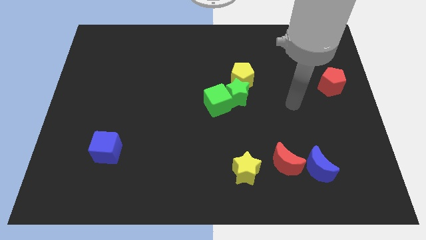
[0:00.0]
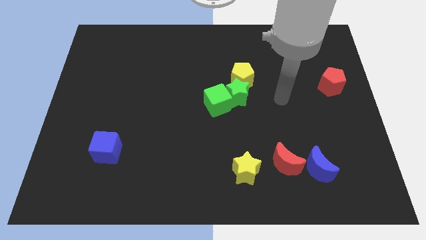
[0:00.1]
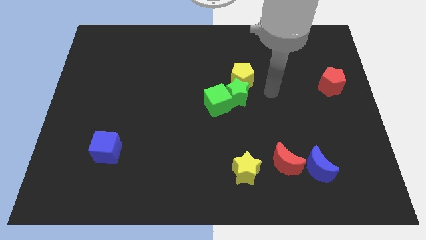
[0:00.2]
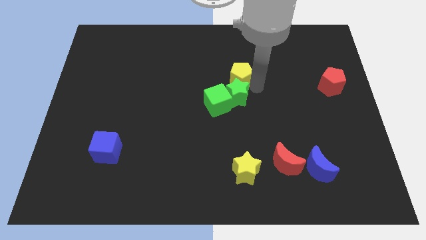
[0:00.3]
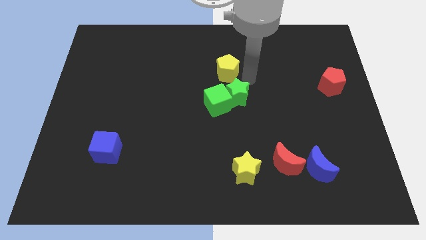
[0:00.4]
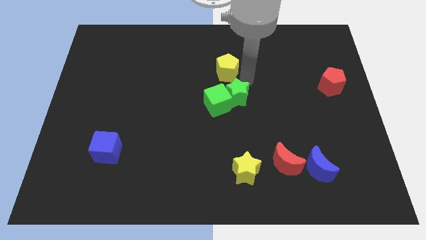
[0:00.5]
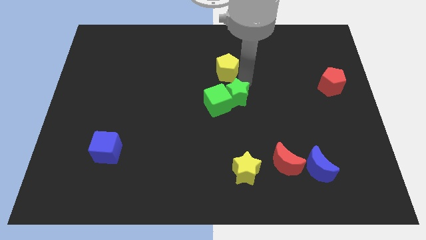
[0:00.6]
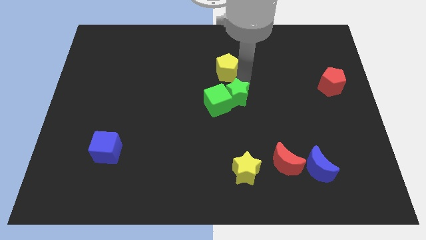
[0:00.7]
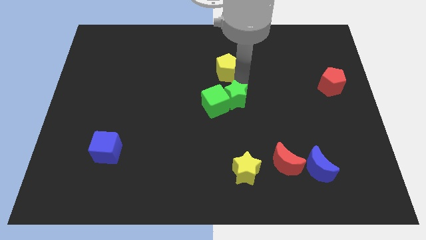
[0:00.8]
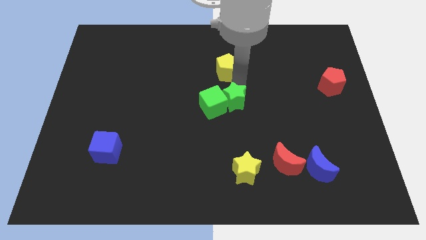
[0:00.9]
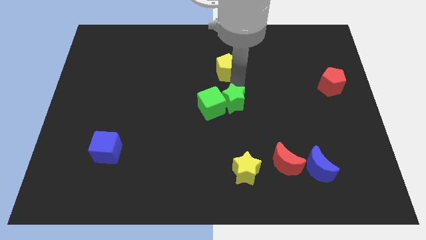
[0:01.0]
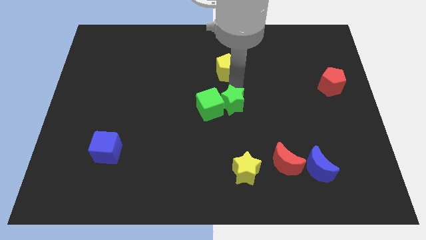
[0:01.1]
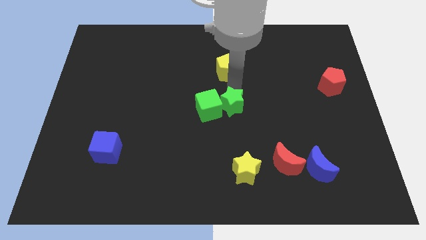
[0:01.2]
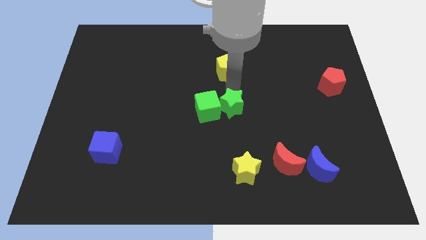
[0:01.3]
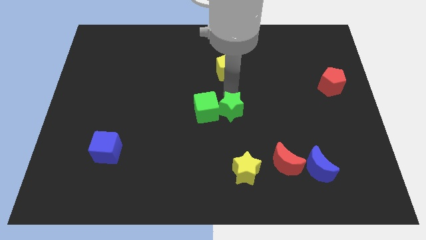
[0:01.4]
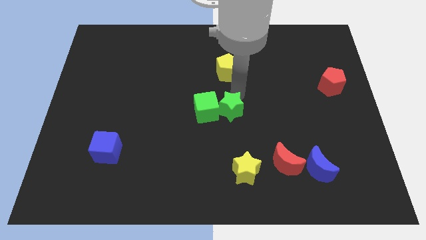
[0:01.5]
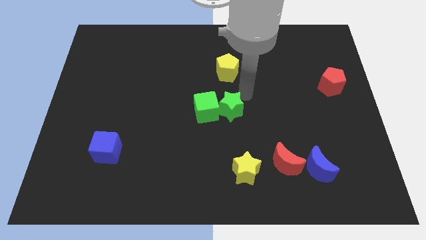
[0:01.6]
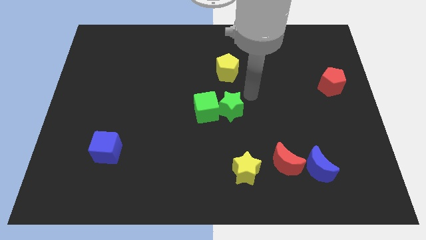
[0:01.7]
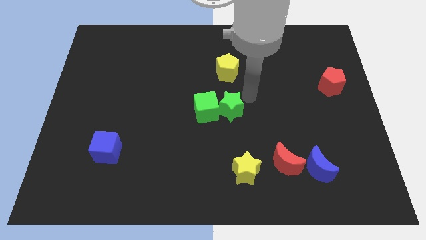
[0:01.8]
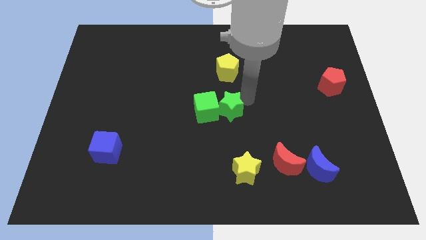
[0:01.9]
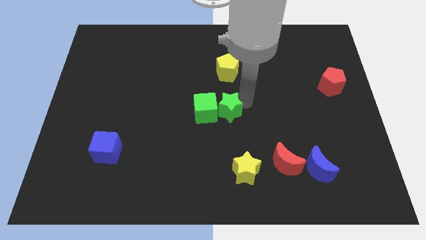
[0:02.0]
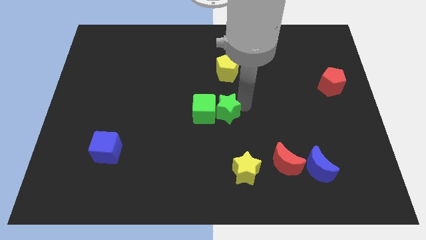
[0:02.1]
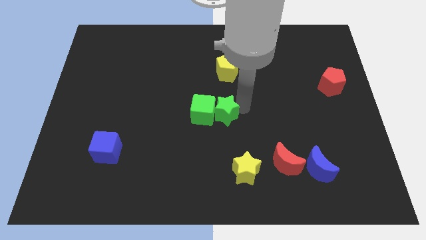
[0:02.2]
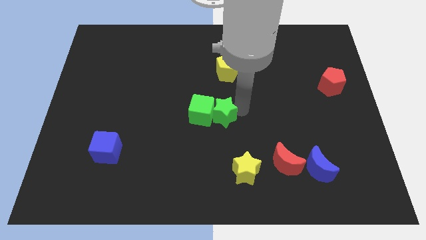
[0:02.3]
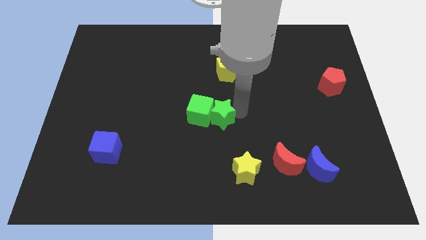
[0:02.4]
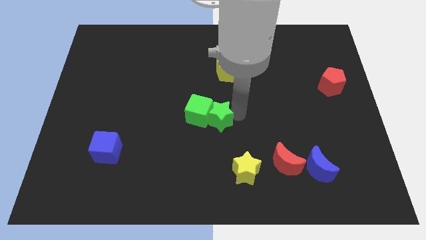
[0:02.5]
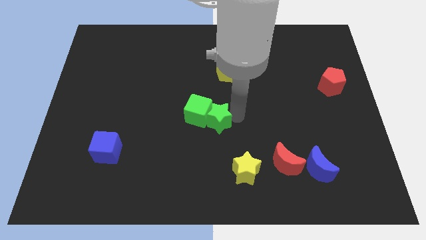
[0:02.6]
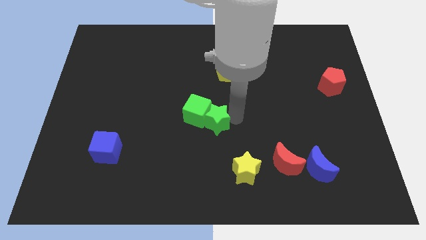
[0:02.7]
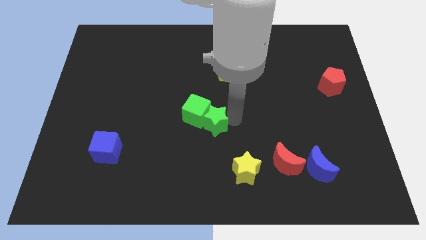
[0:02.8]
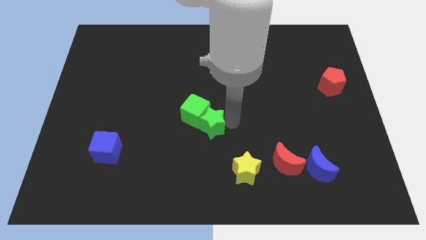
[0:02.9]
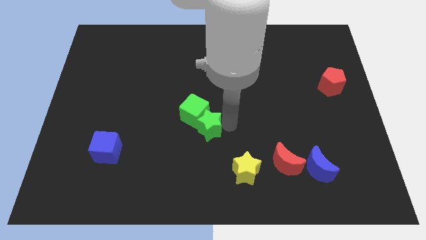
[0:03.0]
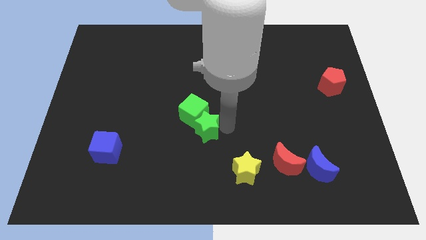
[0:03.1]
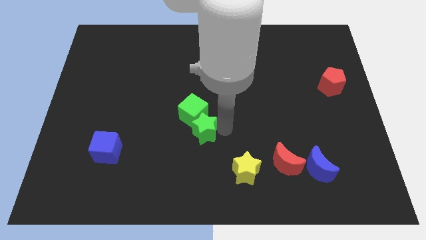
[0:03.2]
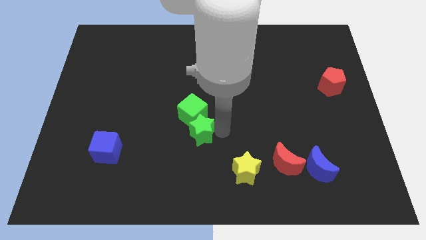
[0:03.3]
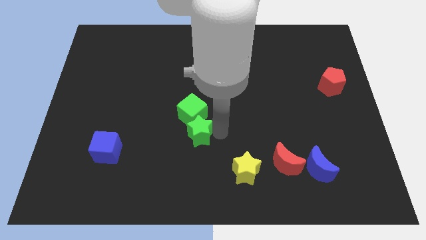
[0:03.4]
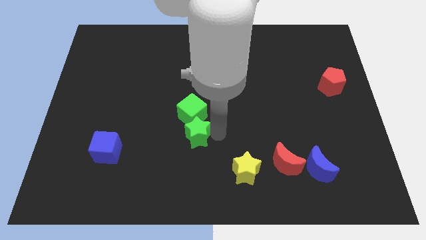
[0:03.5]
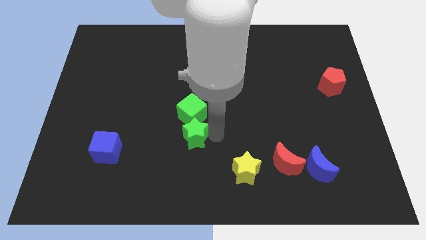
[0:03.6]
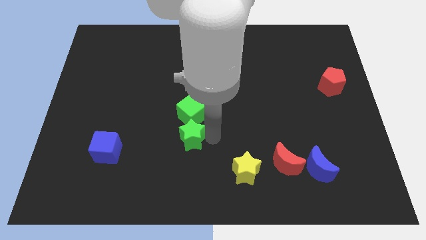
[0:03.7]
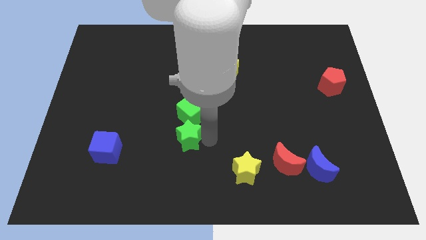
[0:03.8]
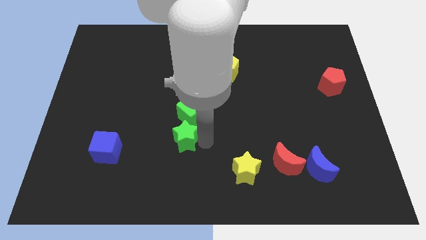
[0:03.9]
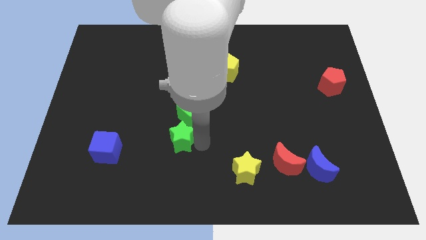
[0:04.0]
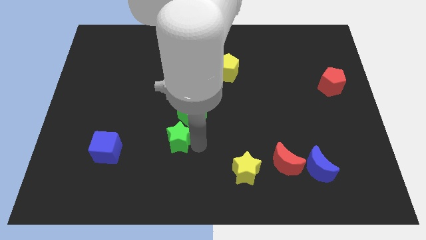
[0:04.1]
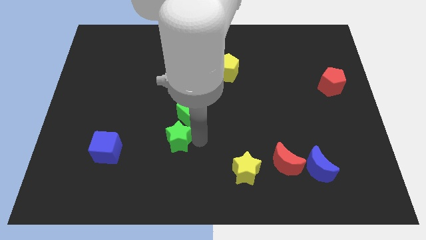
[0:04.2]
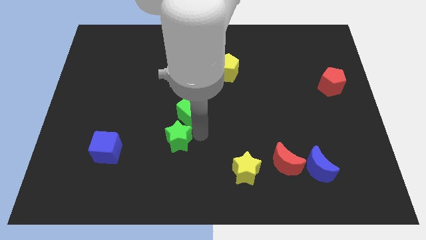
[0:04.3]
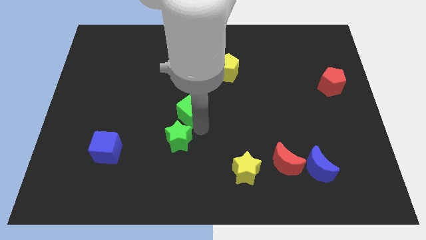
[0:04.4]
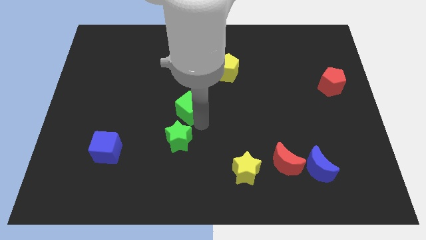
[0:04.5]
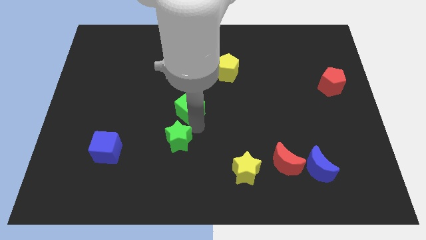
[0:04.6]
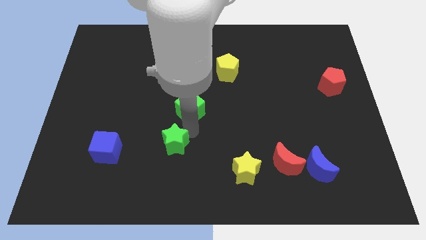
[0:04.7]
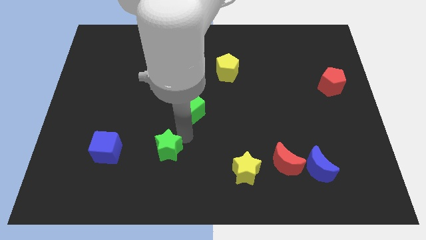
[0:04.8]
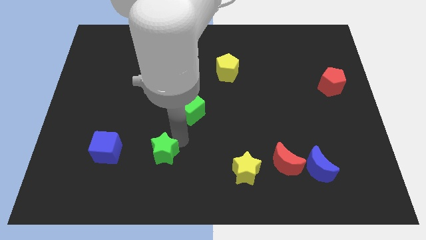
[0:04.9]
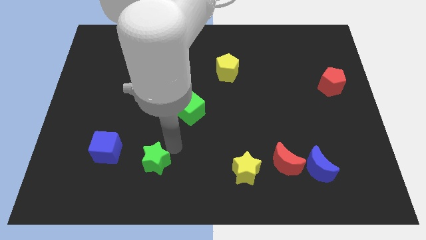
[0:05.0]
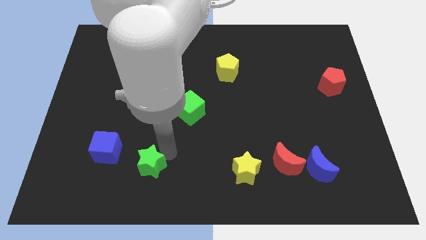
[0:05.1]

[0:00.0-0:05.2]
push the green star diagonally down and to the right of the blue cube

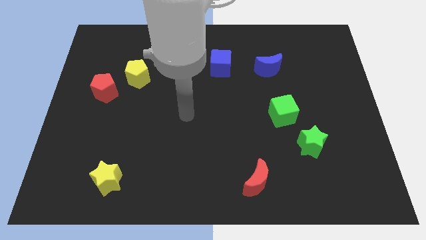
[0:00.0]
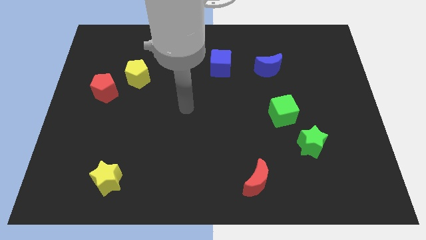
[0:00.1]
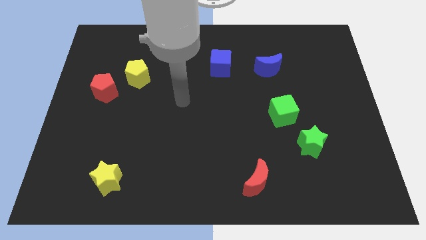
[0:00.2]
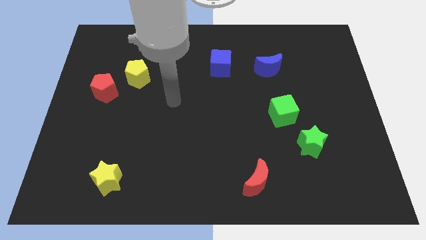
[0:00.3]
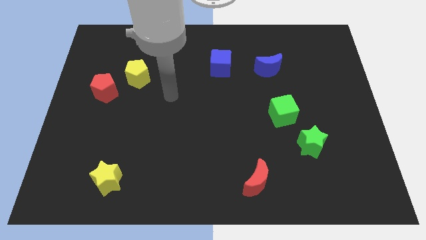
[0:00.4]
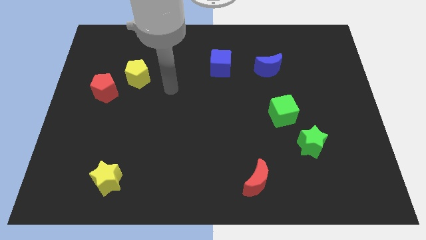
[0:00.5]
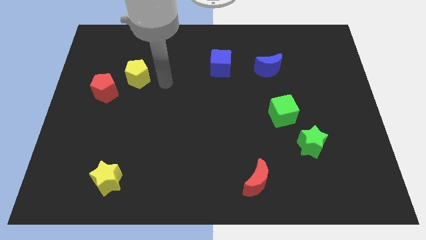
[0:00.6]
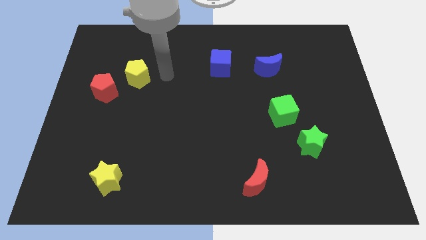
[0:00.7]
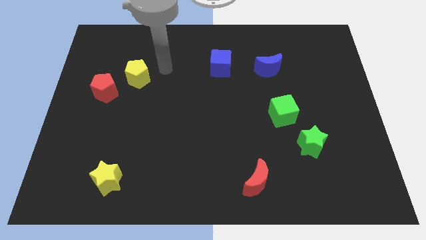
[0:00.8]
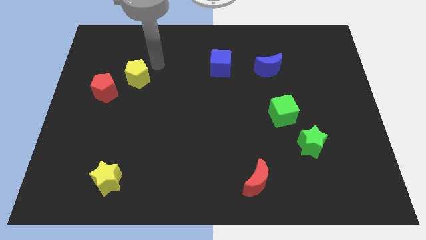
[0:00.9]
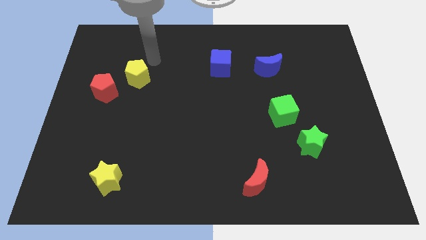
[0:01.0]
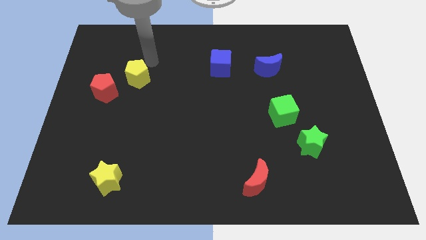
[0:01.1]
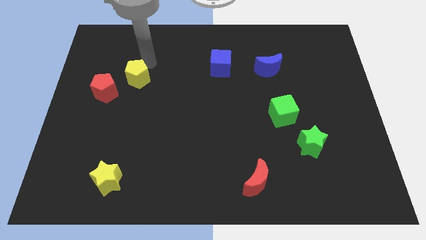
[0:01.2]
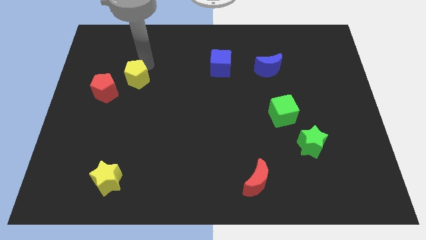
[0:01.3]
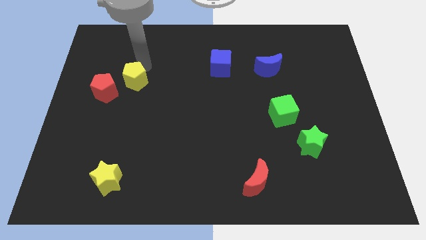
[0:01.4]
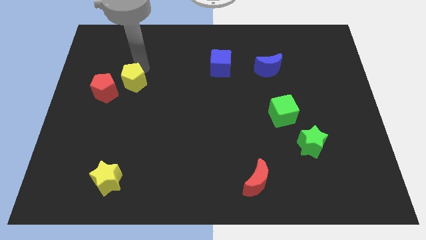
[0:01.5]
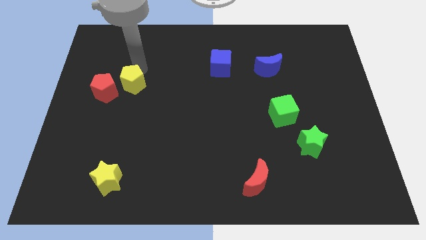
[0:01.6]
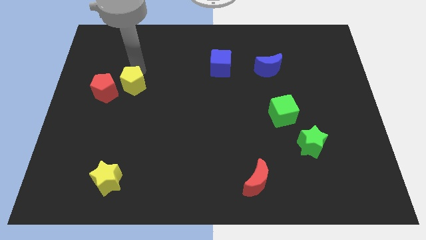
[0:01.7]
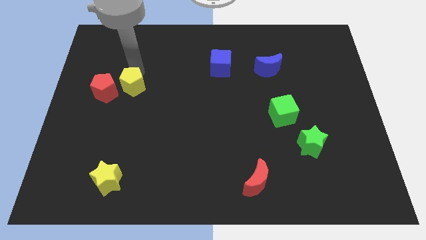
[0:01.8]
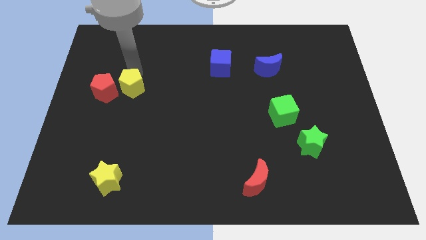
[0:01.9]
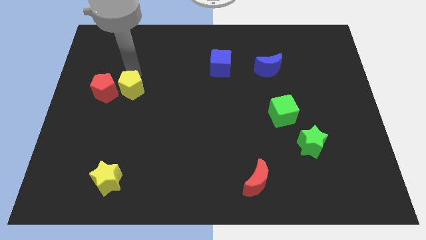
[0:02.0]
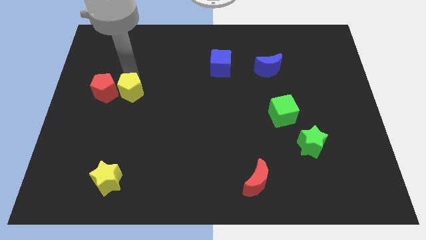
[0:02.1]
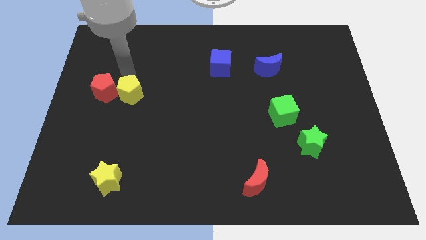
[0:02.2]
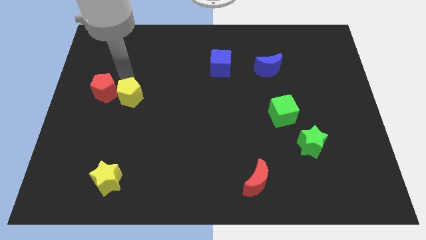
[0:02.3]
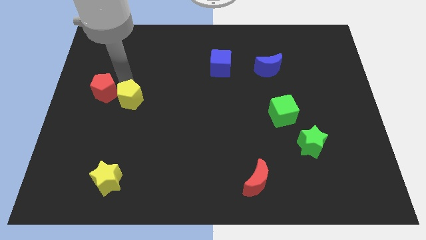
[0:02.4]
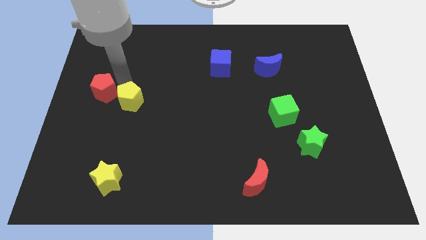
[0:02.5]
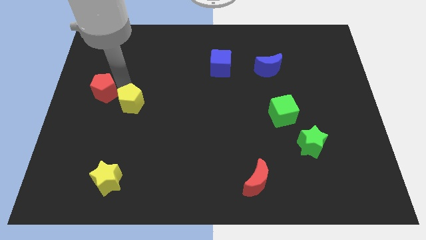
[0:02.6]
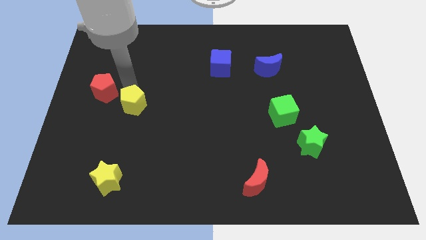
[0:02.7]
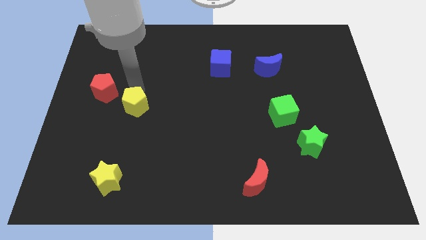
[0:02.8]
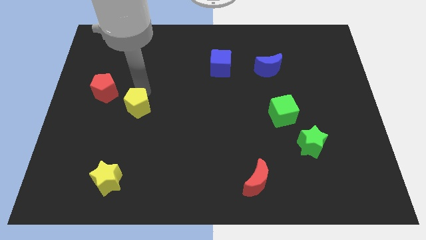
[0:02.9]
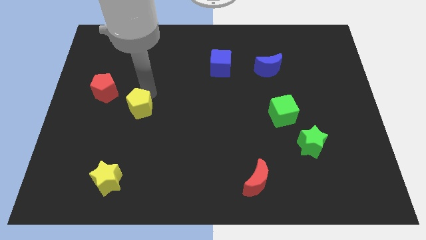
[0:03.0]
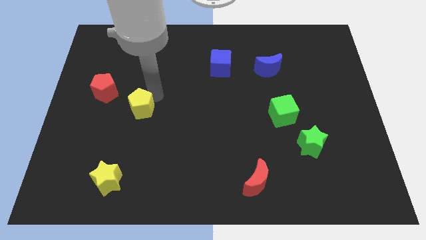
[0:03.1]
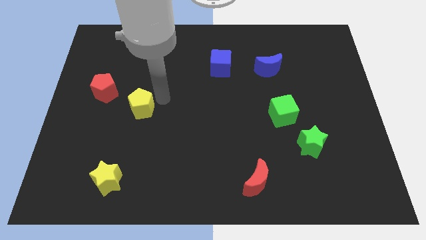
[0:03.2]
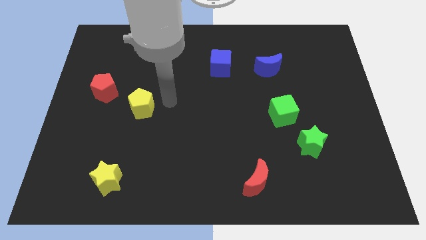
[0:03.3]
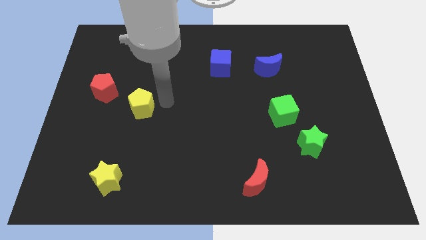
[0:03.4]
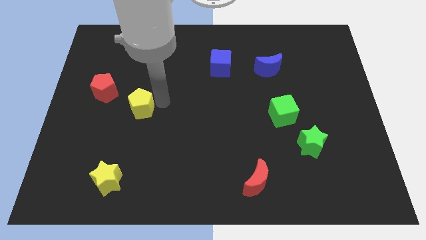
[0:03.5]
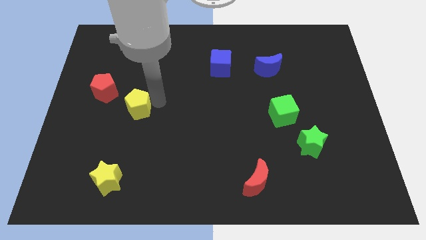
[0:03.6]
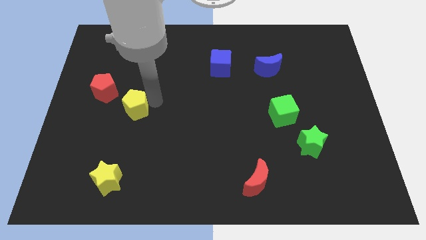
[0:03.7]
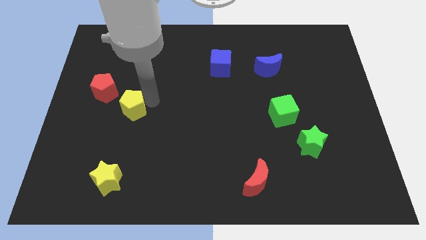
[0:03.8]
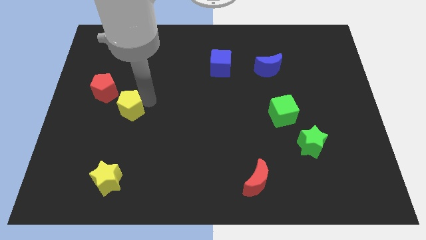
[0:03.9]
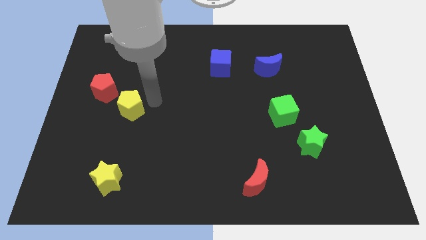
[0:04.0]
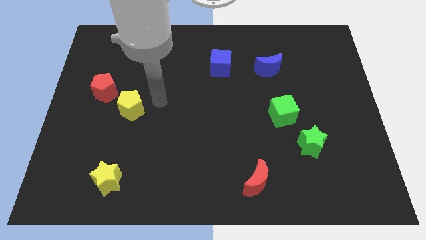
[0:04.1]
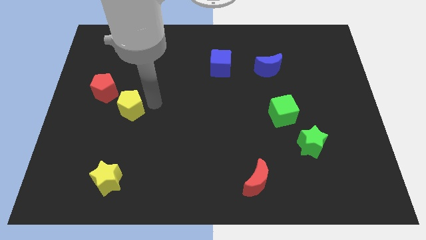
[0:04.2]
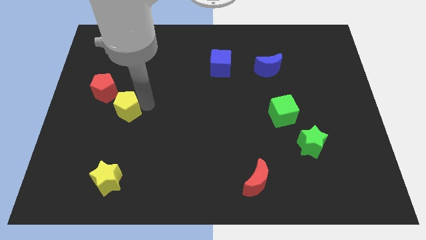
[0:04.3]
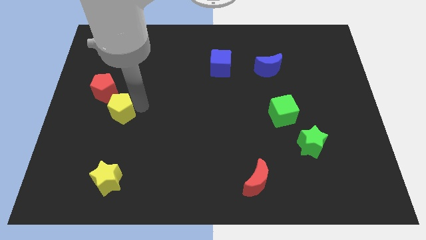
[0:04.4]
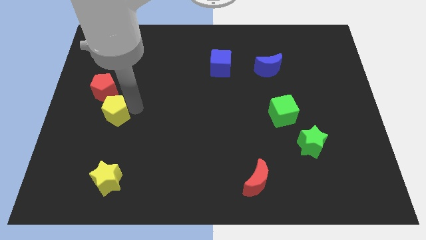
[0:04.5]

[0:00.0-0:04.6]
slide the yellow pentagon to the bottom side of the red pentagon
